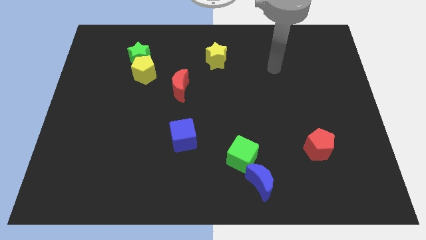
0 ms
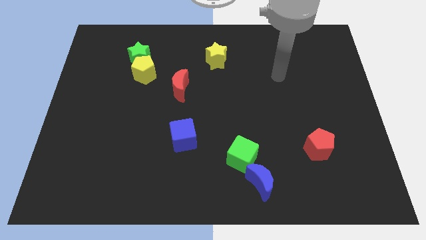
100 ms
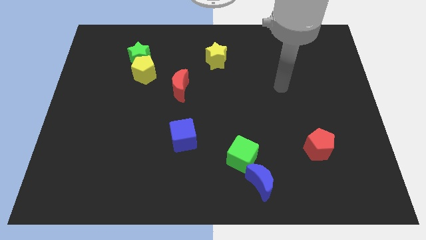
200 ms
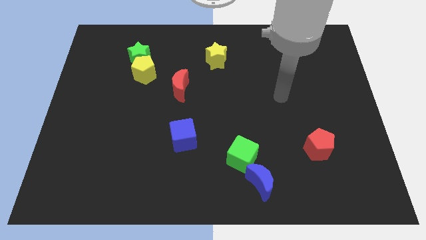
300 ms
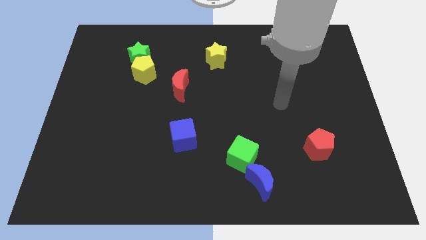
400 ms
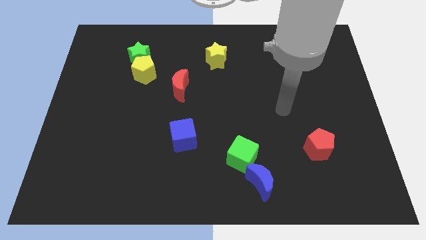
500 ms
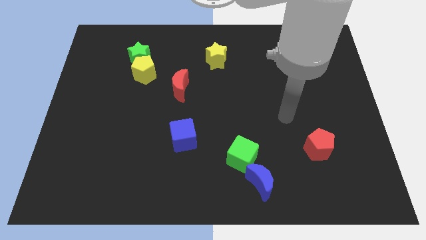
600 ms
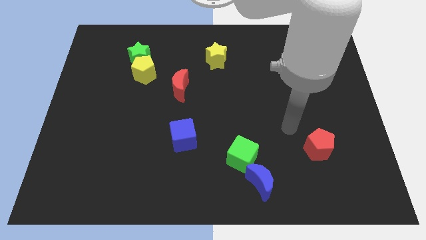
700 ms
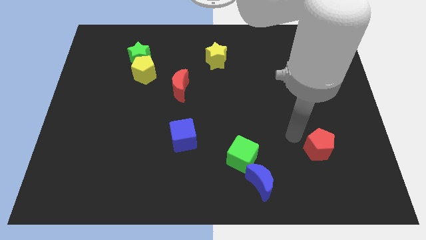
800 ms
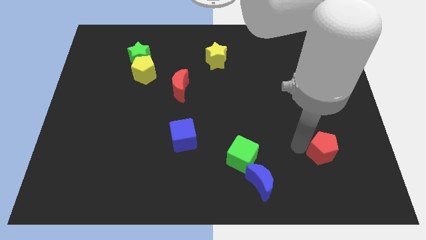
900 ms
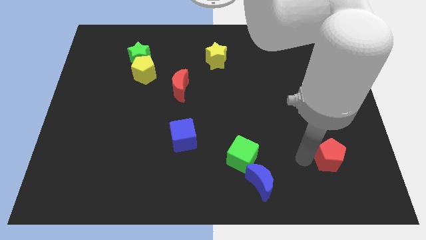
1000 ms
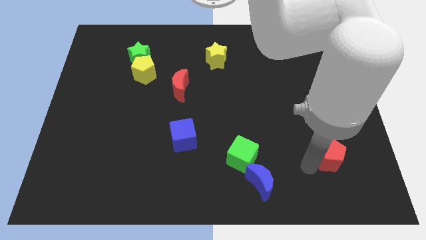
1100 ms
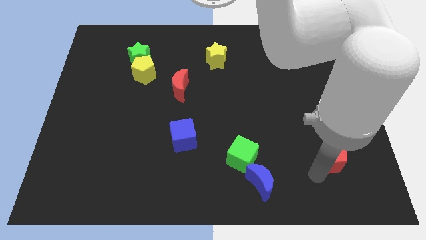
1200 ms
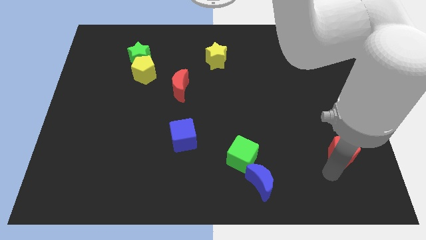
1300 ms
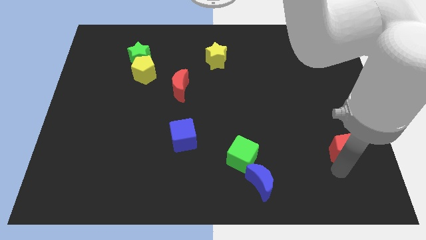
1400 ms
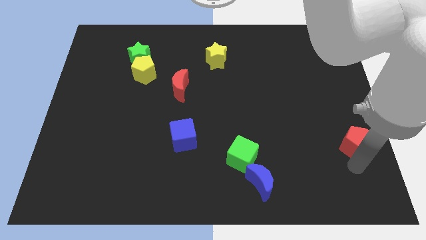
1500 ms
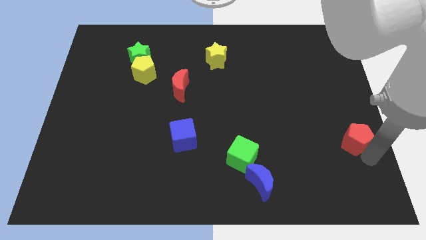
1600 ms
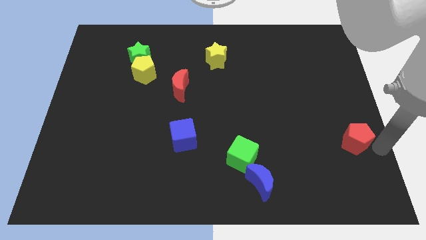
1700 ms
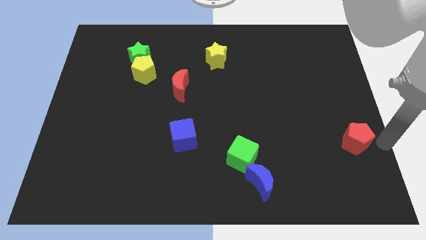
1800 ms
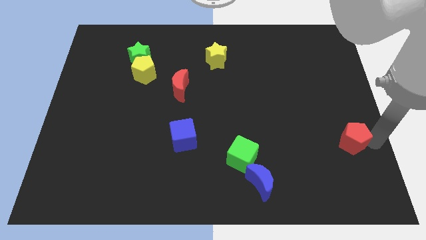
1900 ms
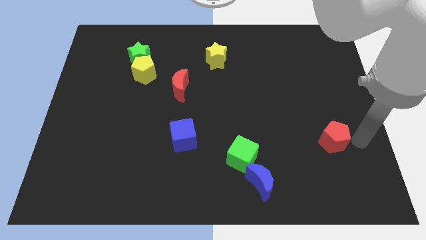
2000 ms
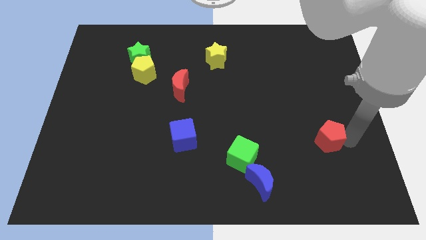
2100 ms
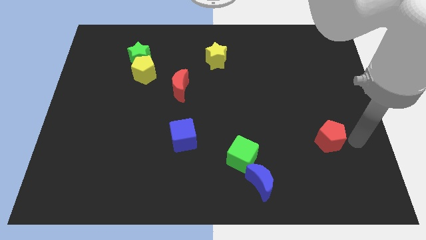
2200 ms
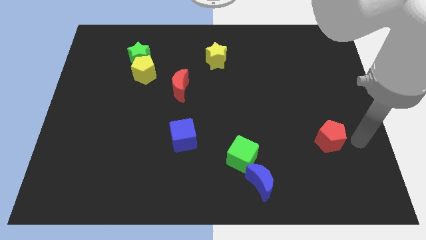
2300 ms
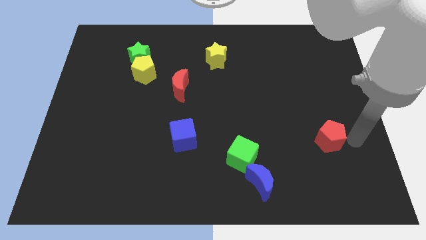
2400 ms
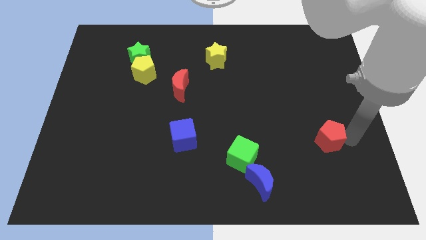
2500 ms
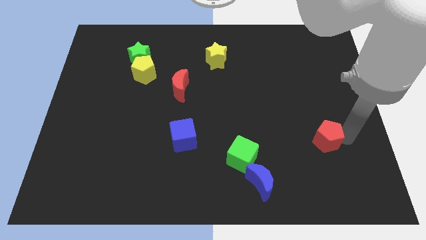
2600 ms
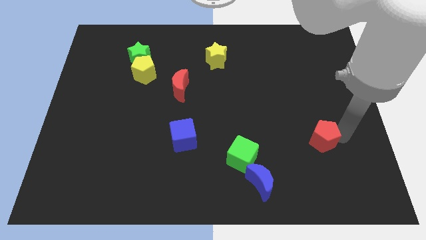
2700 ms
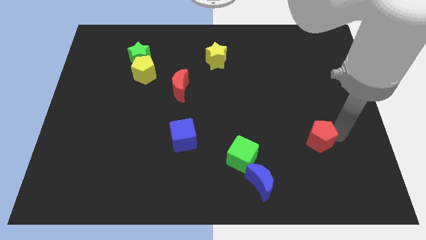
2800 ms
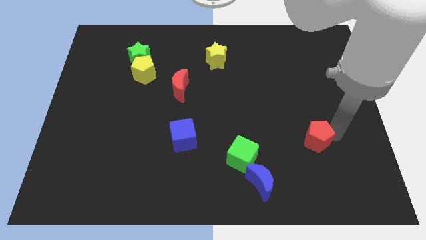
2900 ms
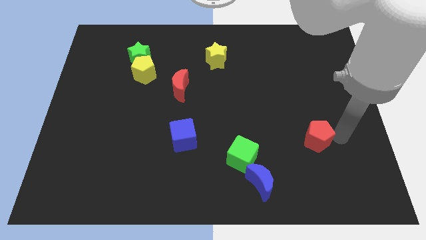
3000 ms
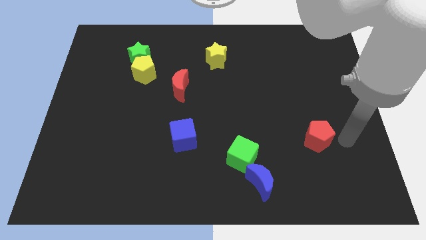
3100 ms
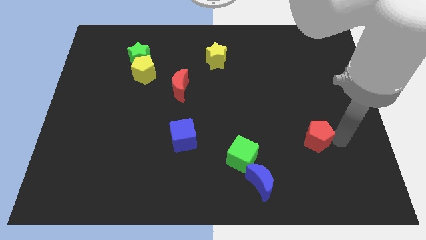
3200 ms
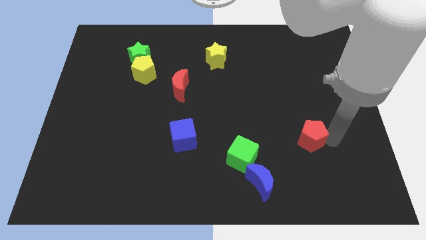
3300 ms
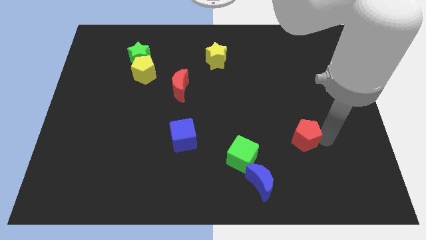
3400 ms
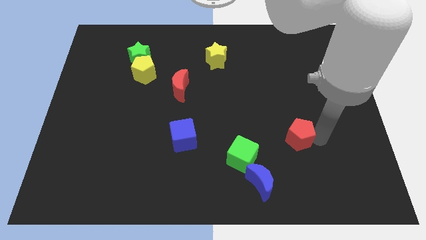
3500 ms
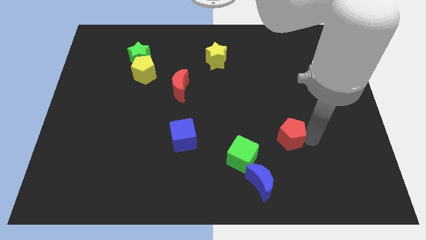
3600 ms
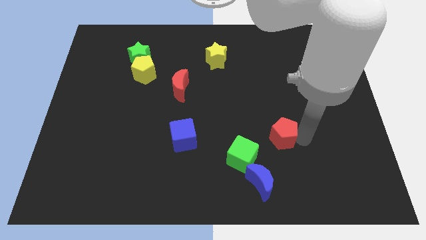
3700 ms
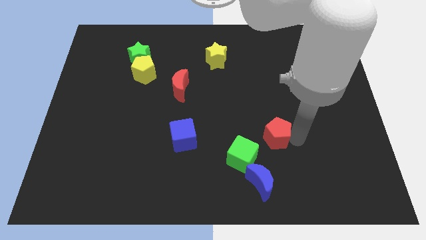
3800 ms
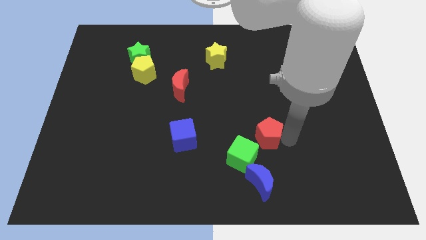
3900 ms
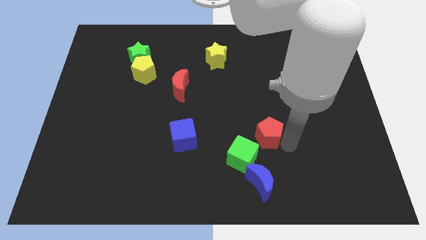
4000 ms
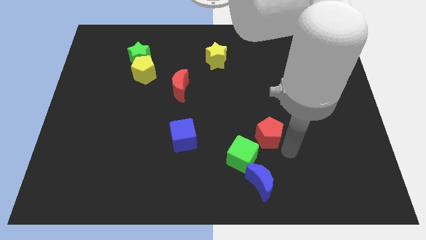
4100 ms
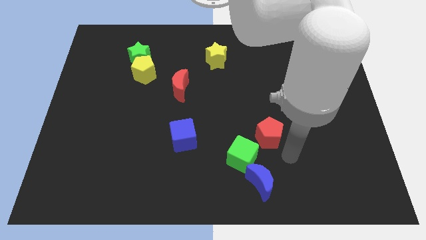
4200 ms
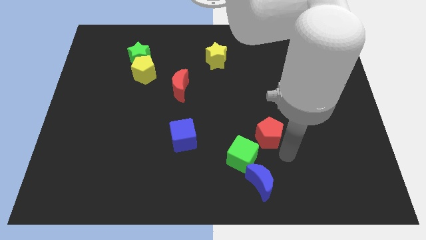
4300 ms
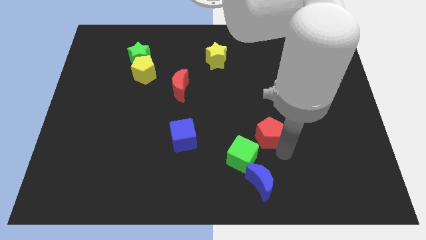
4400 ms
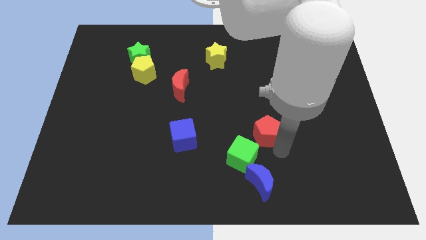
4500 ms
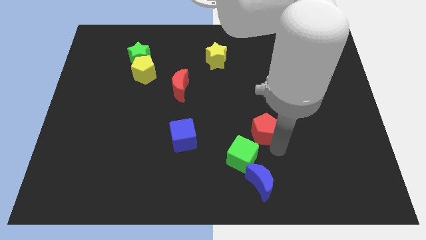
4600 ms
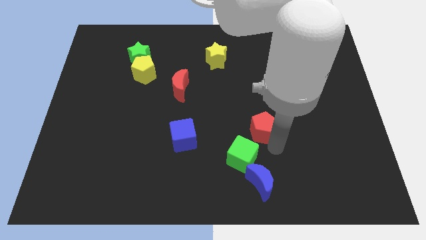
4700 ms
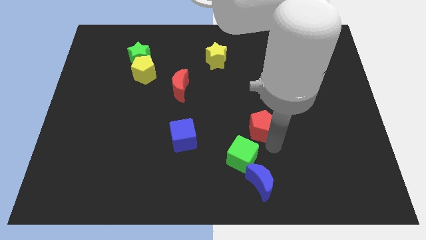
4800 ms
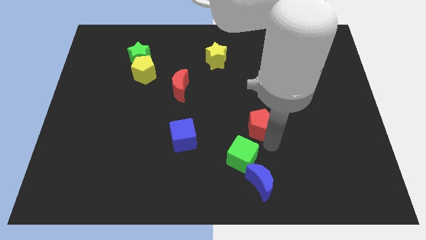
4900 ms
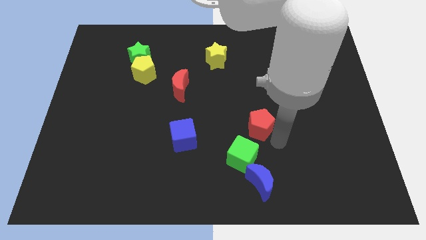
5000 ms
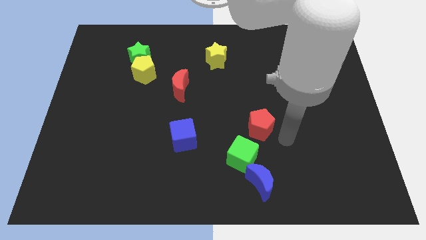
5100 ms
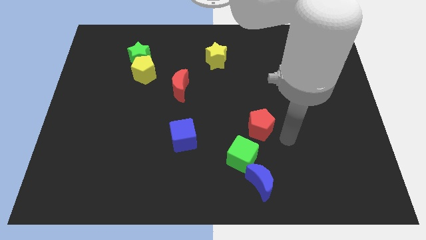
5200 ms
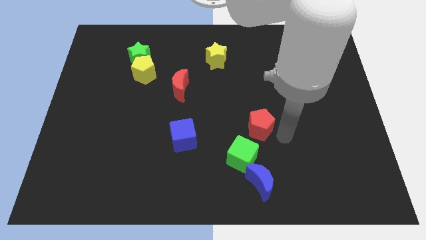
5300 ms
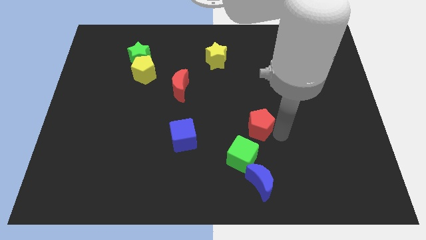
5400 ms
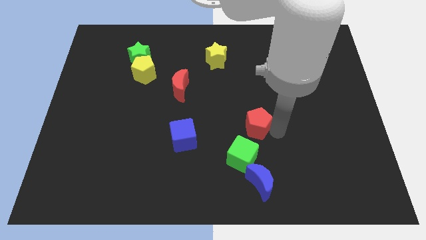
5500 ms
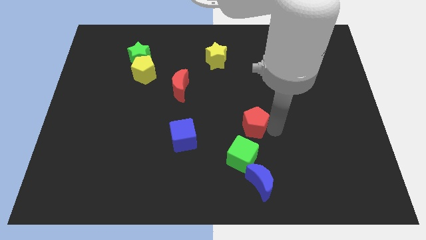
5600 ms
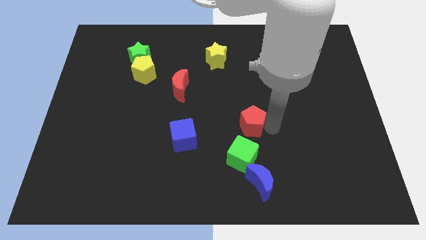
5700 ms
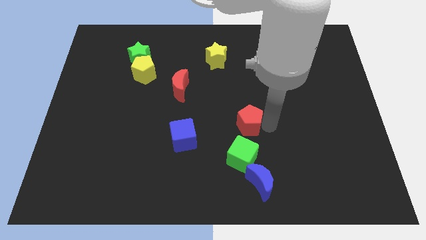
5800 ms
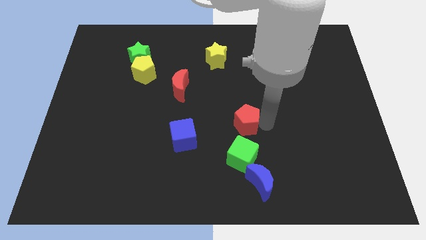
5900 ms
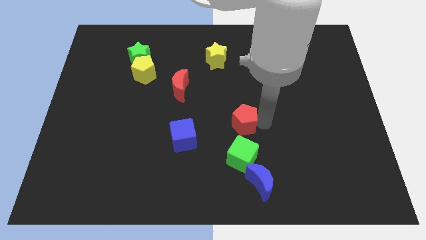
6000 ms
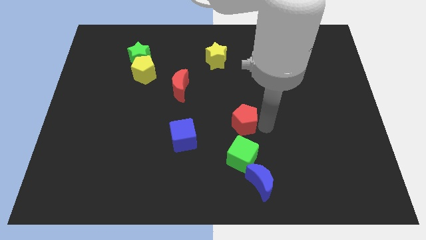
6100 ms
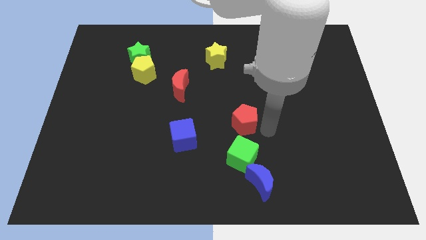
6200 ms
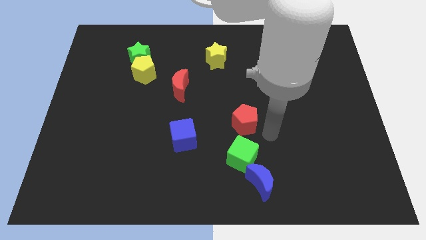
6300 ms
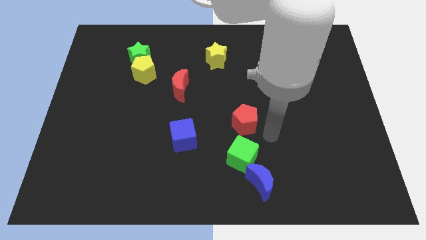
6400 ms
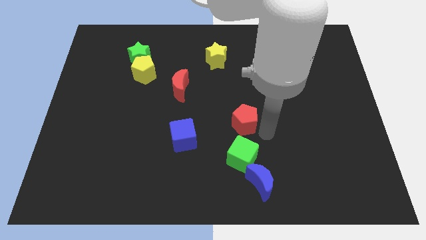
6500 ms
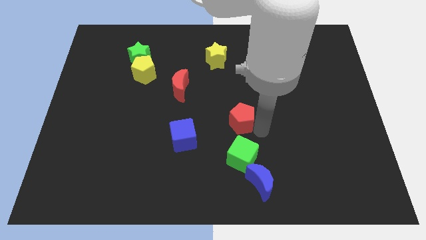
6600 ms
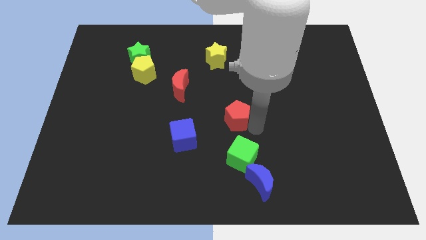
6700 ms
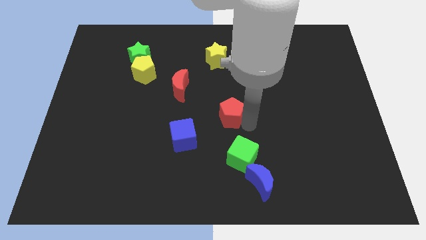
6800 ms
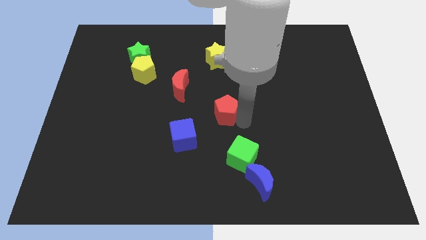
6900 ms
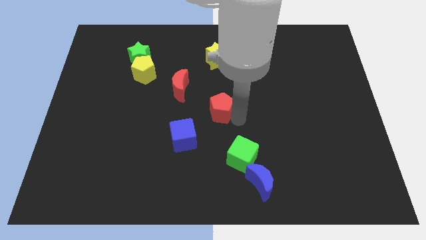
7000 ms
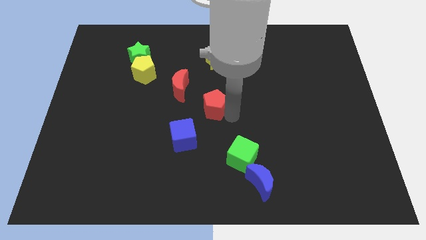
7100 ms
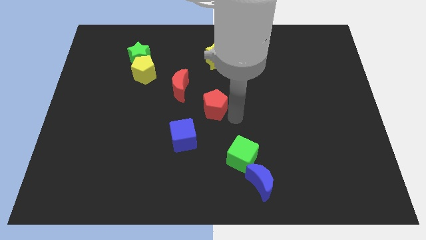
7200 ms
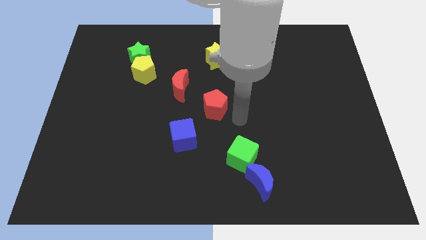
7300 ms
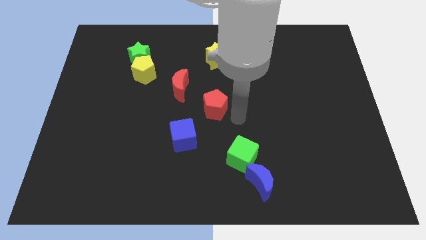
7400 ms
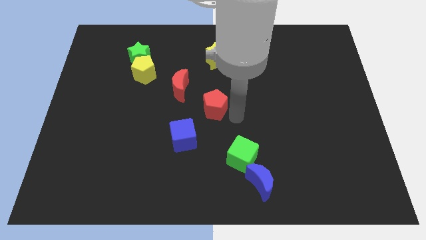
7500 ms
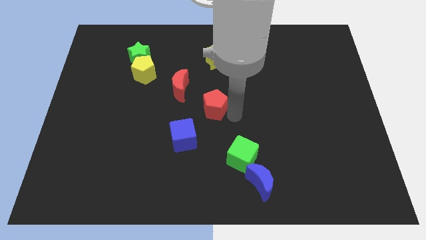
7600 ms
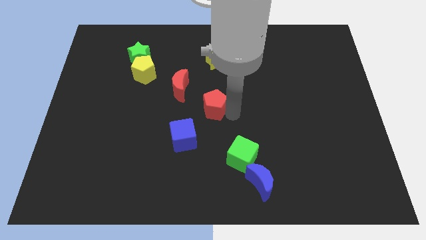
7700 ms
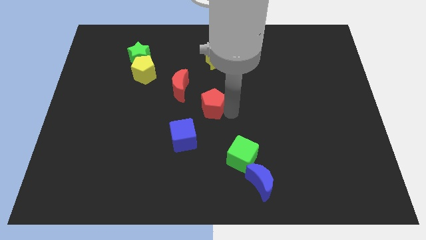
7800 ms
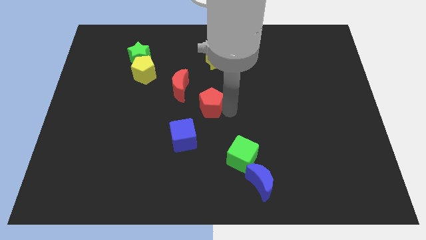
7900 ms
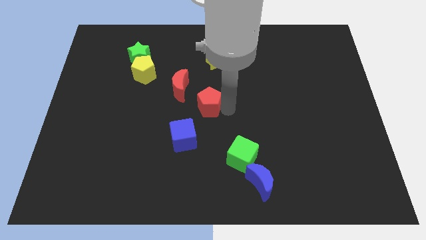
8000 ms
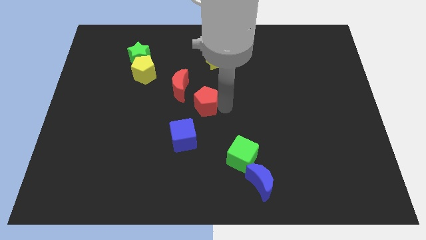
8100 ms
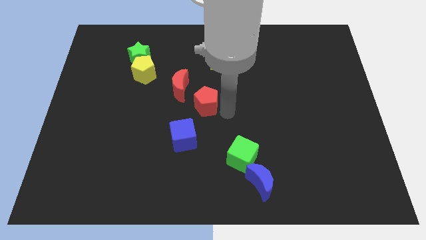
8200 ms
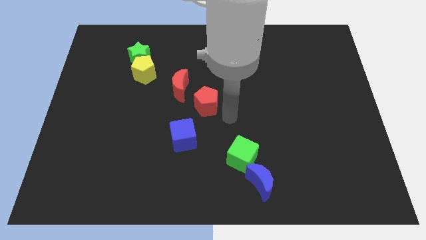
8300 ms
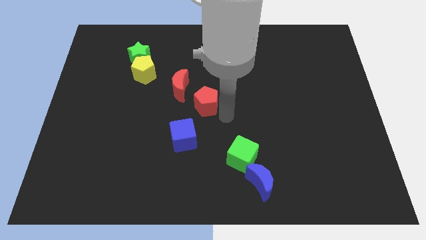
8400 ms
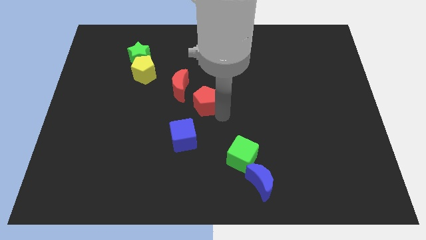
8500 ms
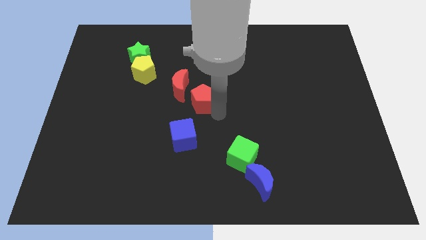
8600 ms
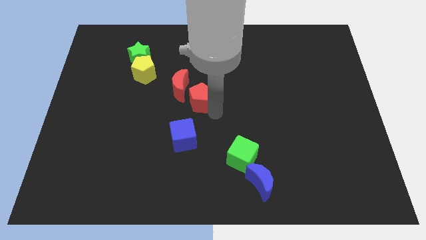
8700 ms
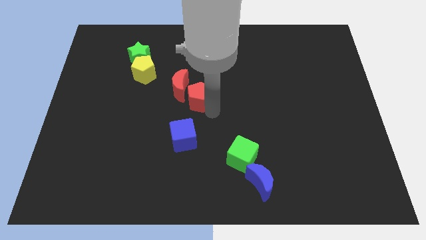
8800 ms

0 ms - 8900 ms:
put the red pentagon close to the red moon
